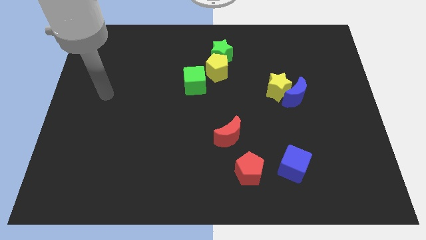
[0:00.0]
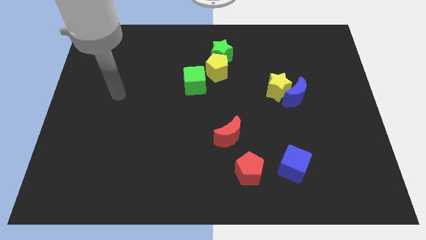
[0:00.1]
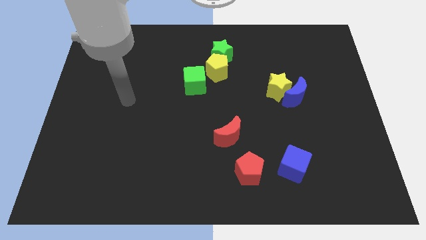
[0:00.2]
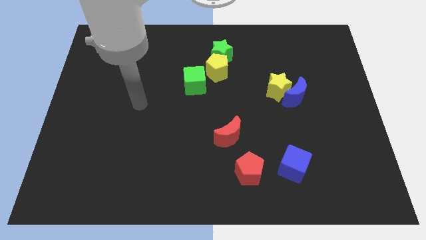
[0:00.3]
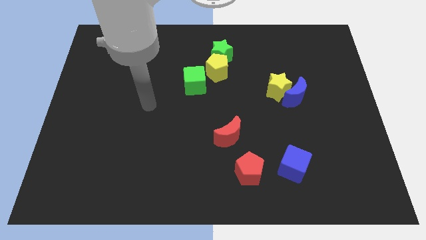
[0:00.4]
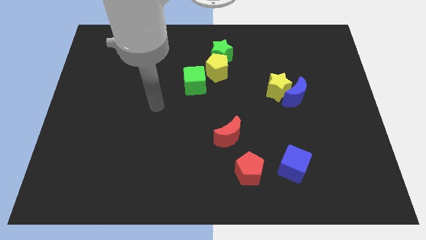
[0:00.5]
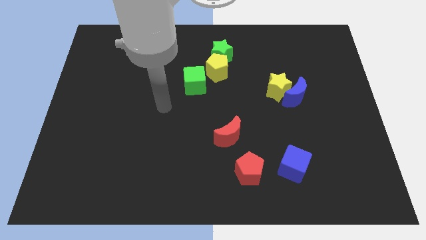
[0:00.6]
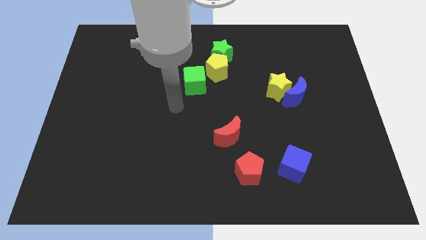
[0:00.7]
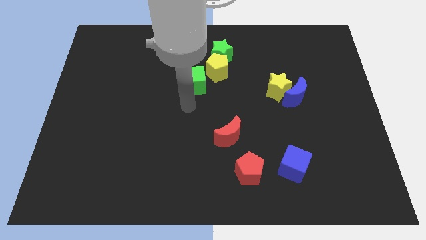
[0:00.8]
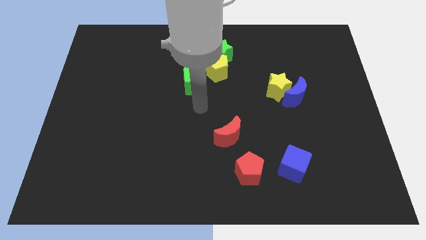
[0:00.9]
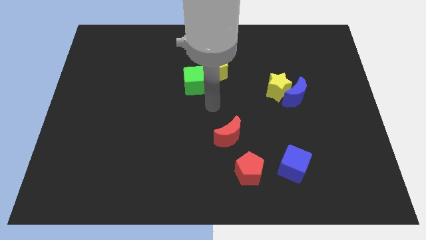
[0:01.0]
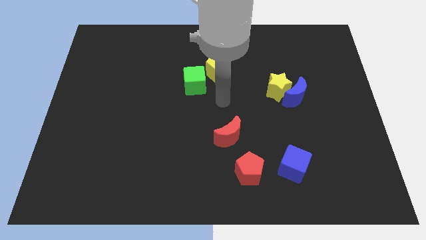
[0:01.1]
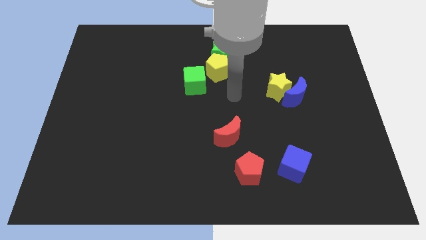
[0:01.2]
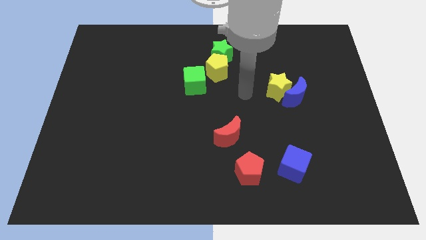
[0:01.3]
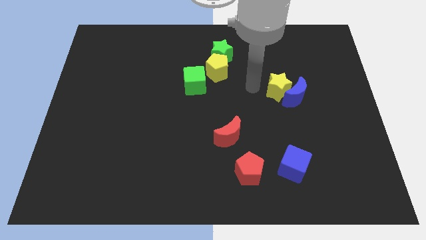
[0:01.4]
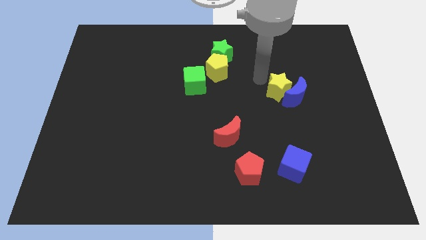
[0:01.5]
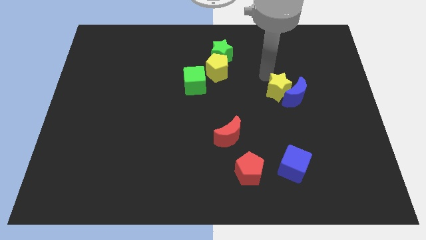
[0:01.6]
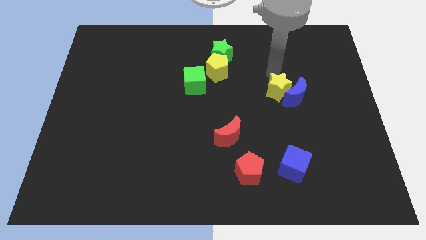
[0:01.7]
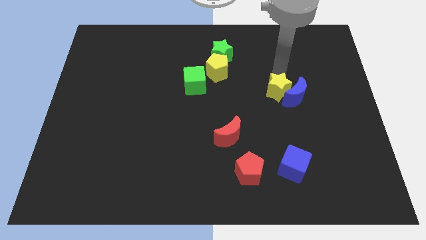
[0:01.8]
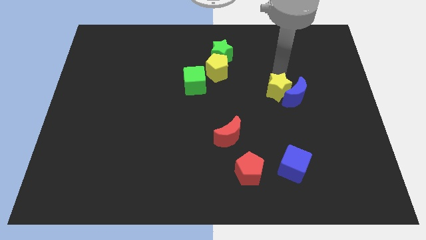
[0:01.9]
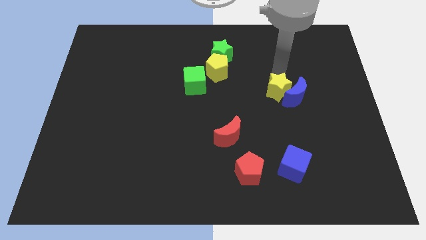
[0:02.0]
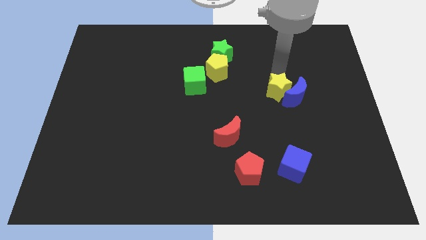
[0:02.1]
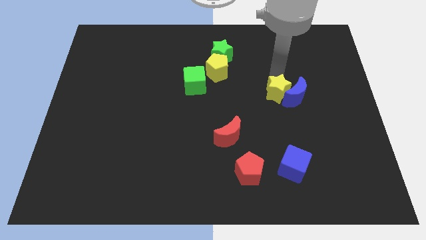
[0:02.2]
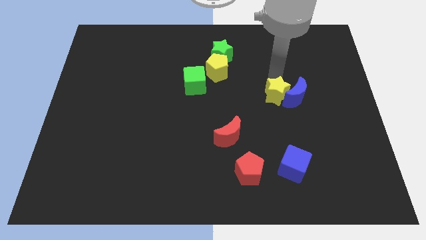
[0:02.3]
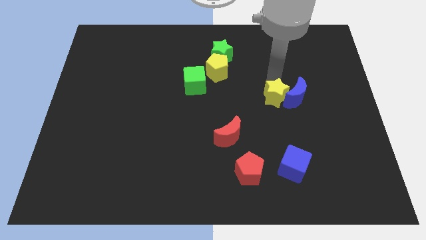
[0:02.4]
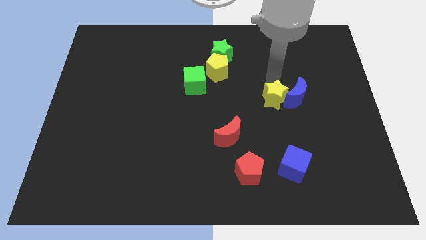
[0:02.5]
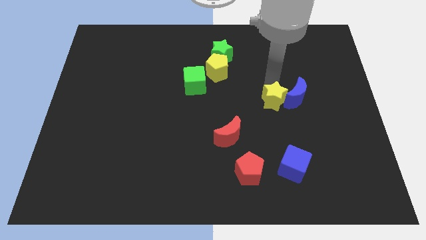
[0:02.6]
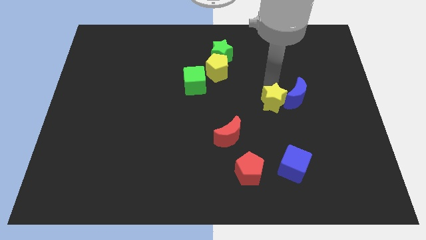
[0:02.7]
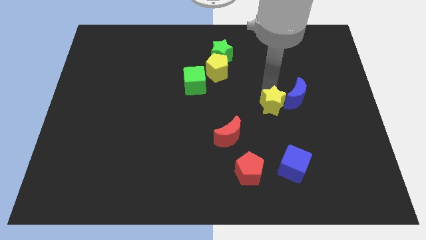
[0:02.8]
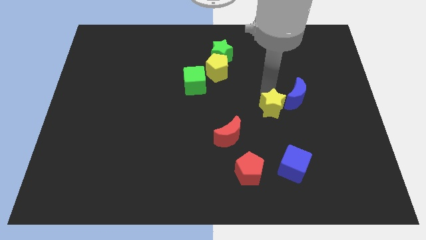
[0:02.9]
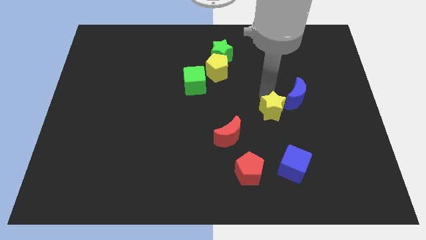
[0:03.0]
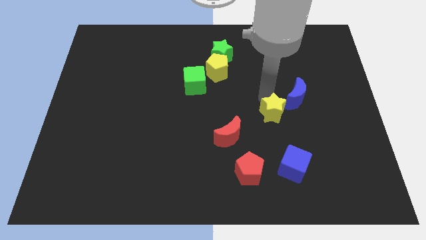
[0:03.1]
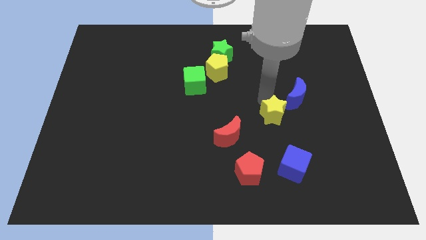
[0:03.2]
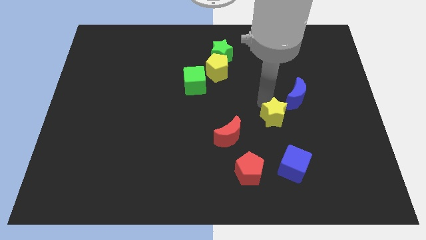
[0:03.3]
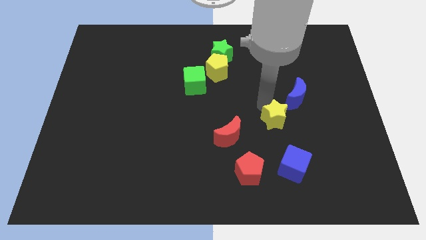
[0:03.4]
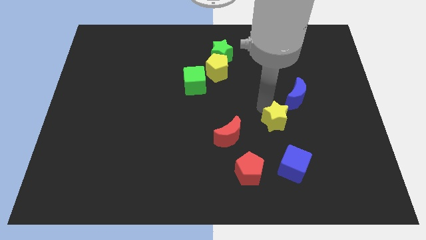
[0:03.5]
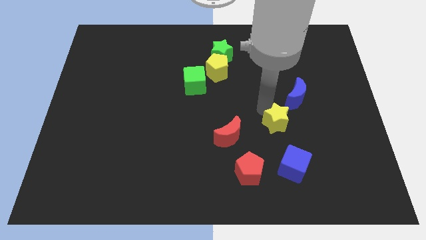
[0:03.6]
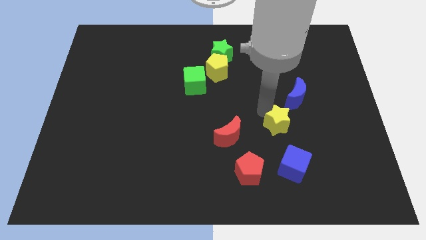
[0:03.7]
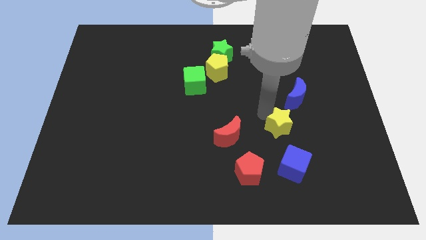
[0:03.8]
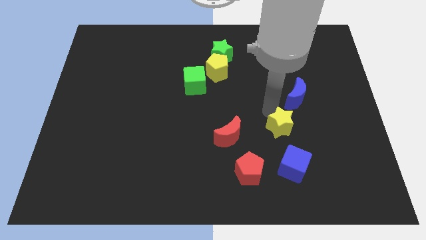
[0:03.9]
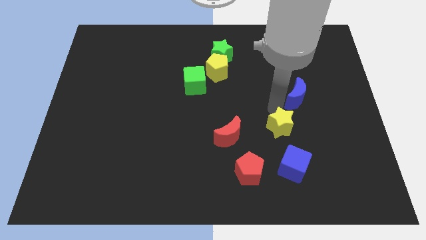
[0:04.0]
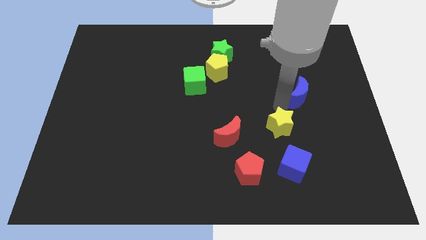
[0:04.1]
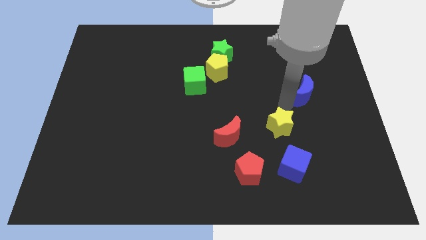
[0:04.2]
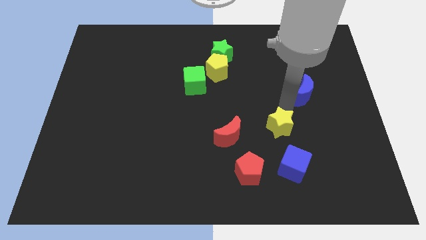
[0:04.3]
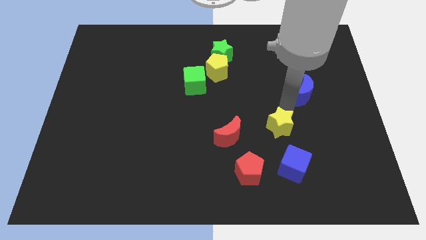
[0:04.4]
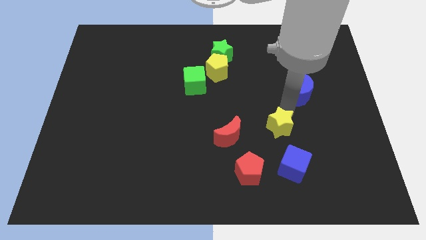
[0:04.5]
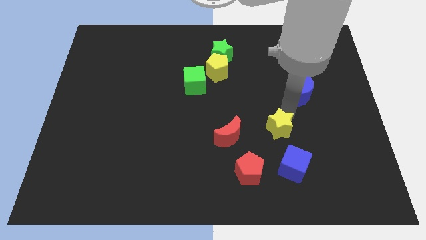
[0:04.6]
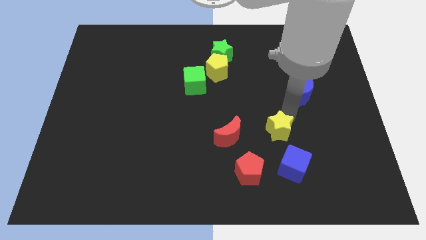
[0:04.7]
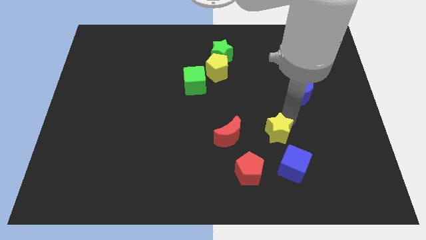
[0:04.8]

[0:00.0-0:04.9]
move the yellow star to the top right side of the red pentagon

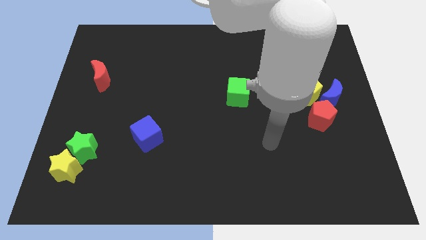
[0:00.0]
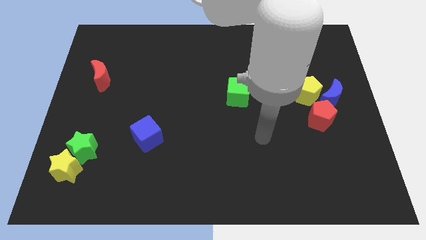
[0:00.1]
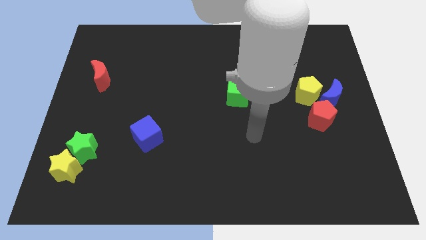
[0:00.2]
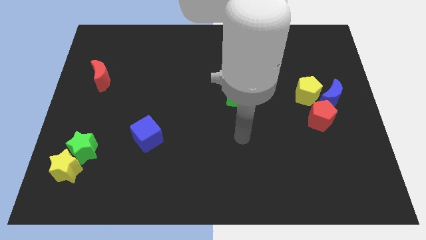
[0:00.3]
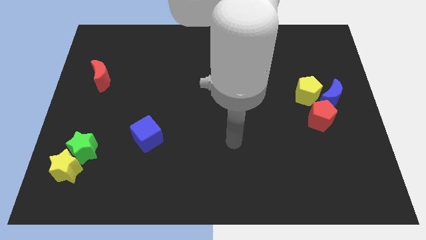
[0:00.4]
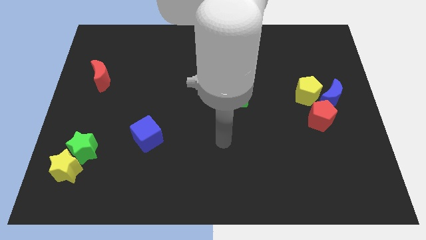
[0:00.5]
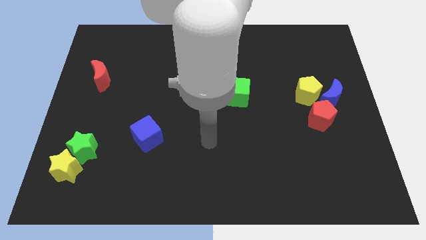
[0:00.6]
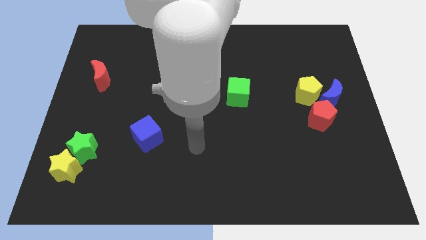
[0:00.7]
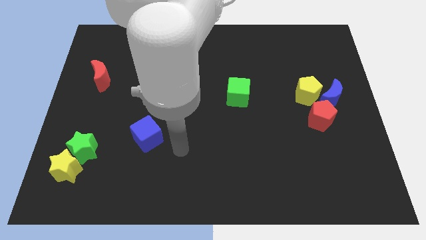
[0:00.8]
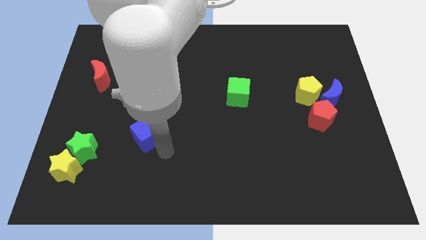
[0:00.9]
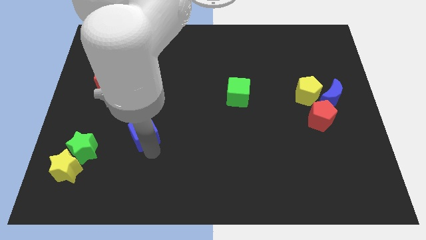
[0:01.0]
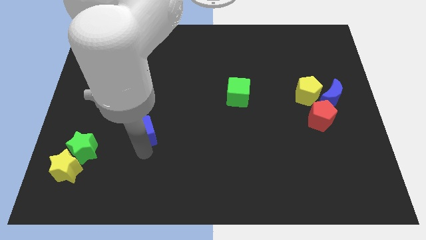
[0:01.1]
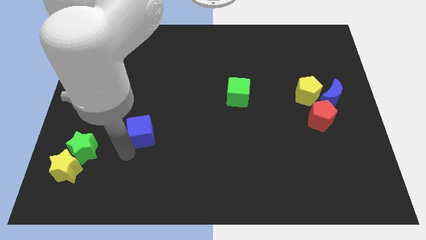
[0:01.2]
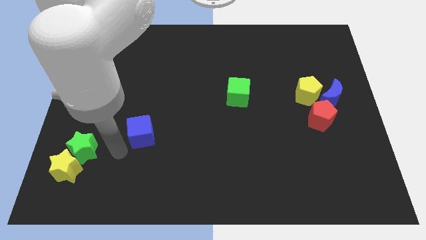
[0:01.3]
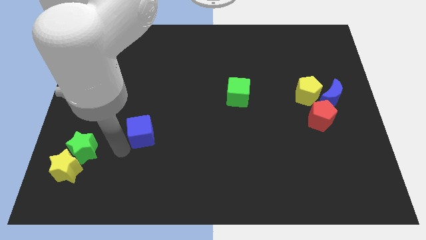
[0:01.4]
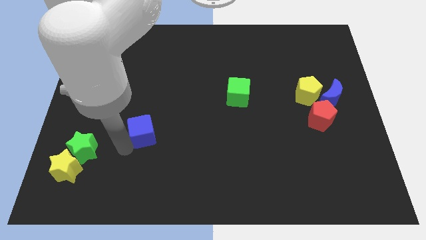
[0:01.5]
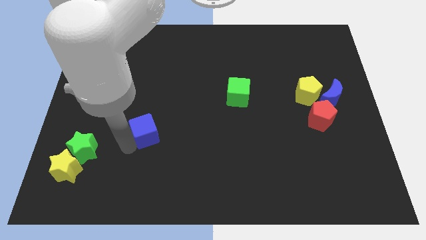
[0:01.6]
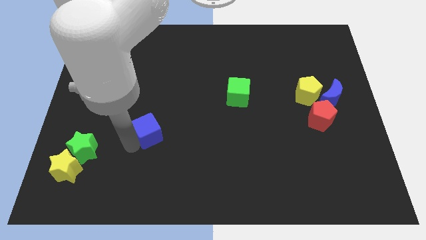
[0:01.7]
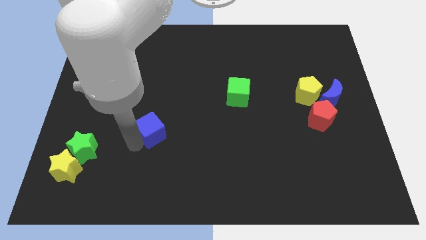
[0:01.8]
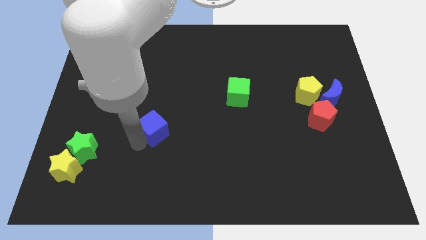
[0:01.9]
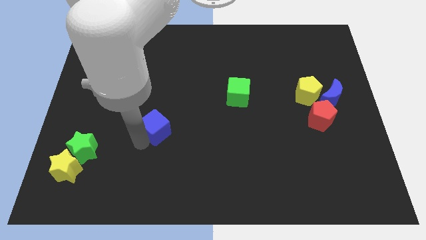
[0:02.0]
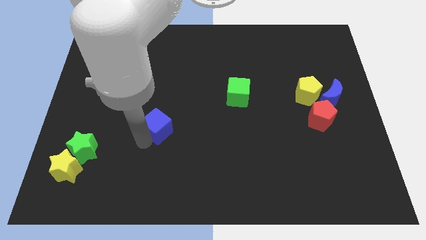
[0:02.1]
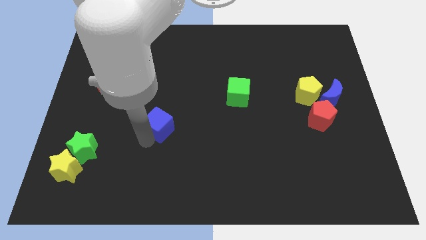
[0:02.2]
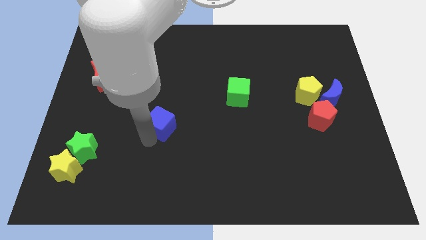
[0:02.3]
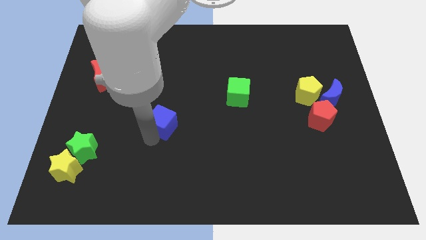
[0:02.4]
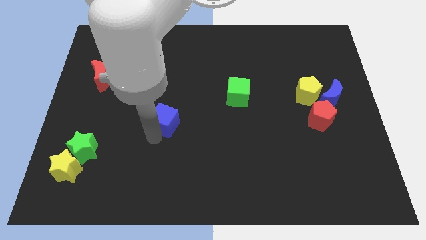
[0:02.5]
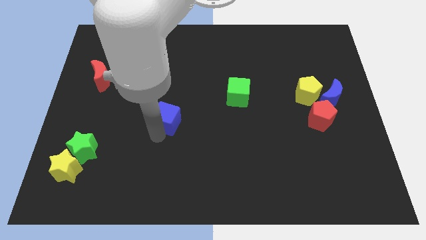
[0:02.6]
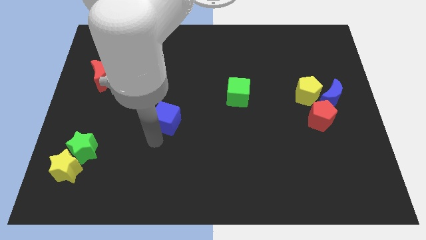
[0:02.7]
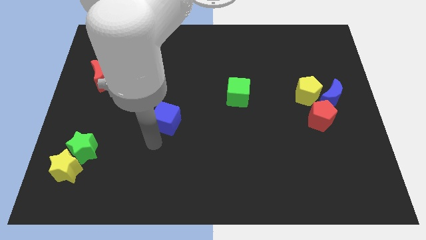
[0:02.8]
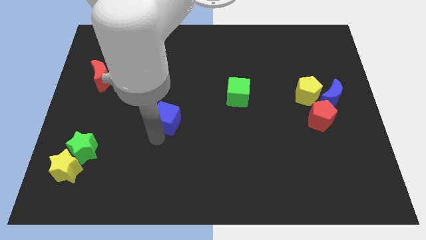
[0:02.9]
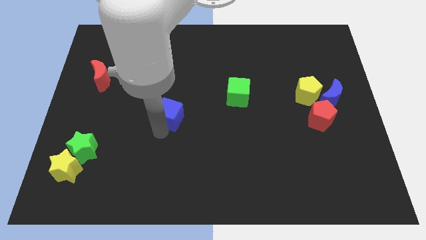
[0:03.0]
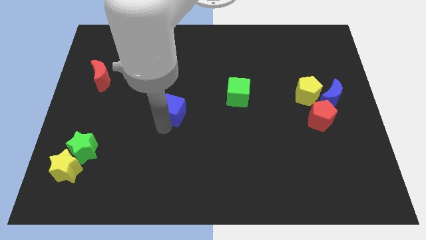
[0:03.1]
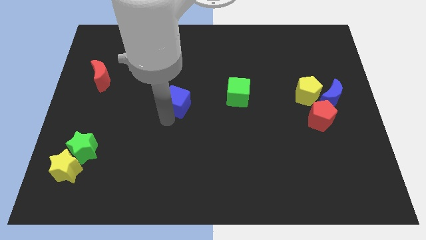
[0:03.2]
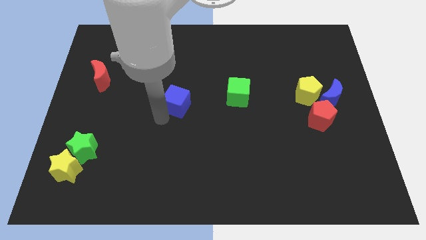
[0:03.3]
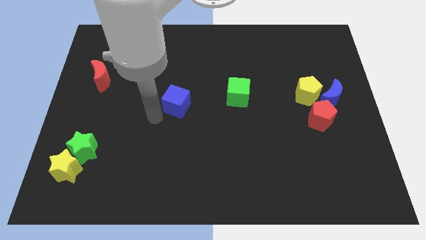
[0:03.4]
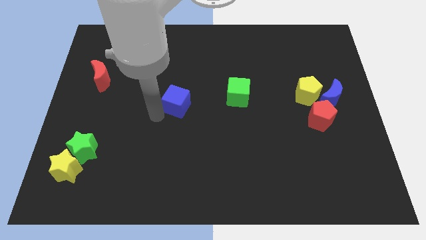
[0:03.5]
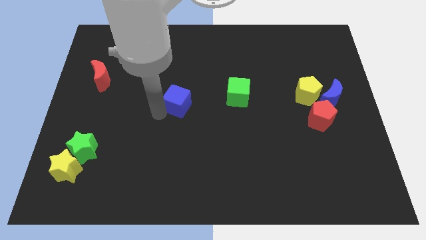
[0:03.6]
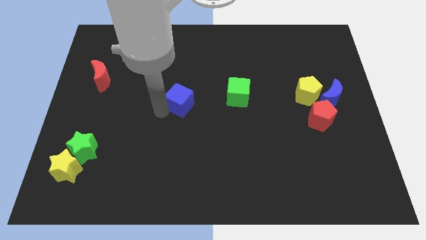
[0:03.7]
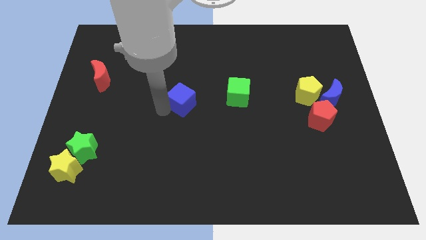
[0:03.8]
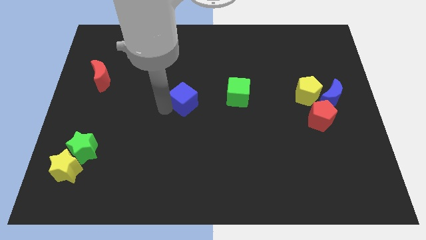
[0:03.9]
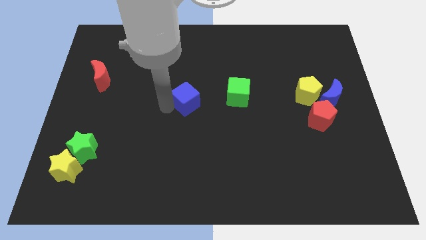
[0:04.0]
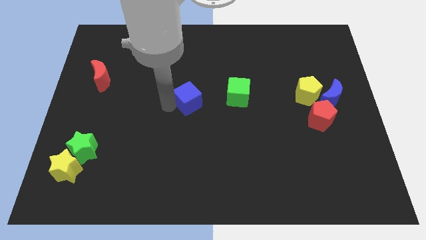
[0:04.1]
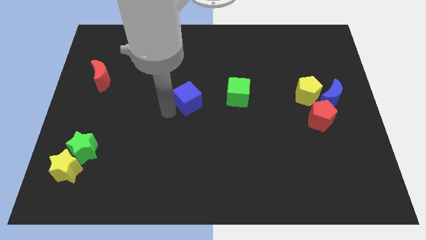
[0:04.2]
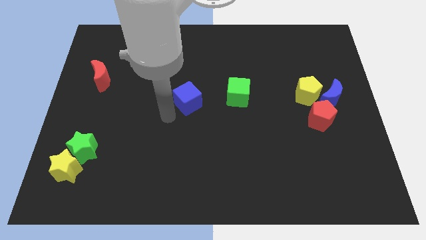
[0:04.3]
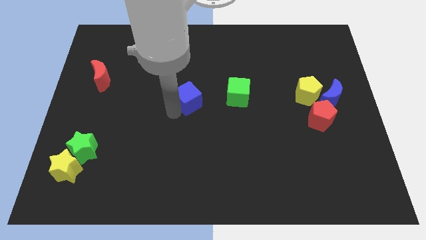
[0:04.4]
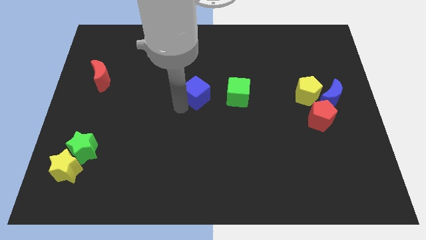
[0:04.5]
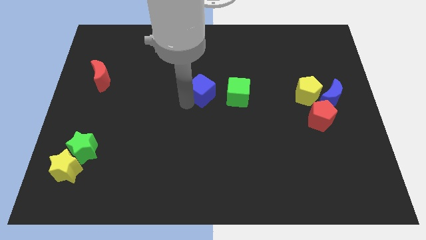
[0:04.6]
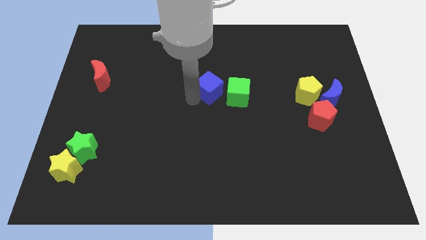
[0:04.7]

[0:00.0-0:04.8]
move the blue cube to the top left side of the green cube
